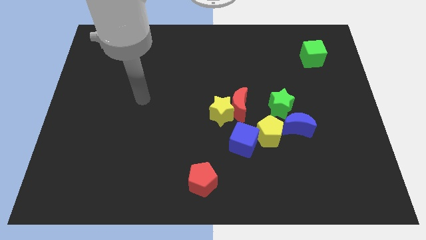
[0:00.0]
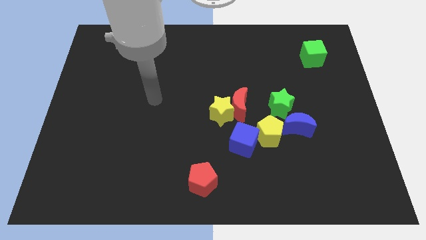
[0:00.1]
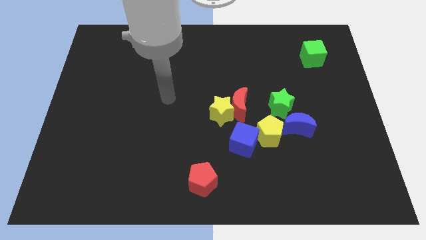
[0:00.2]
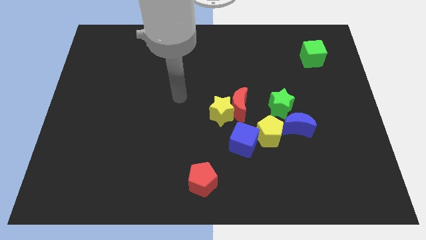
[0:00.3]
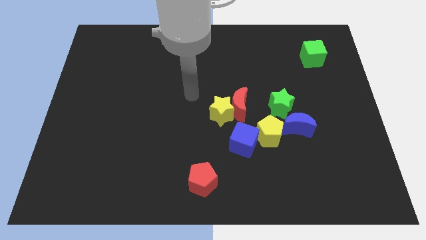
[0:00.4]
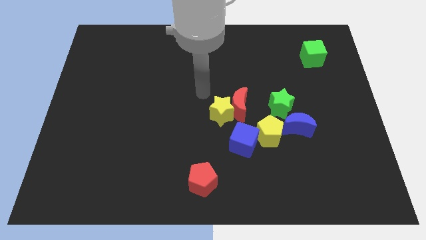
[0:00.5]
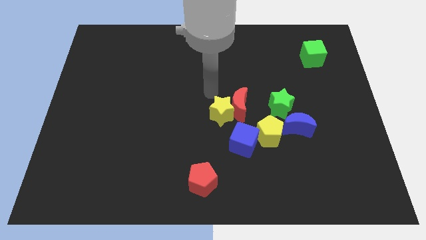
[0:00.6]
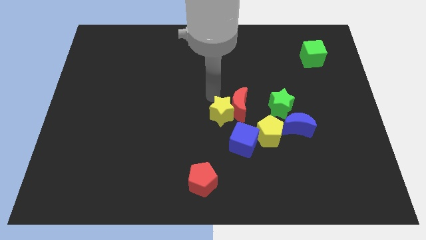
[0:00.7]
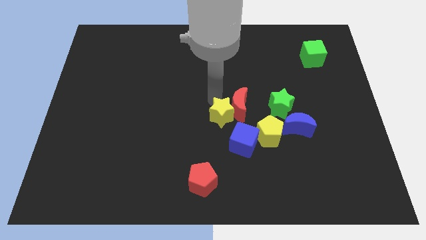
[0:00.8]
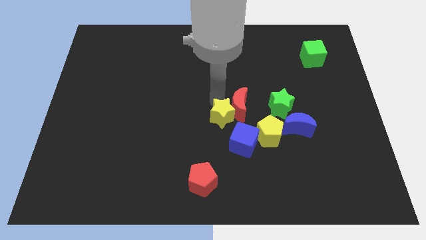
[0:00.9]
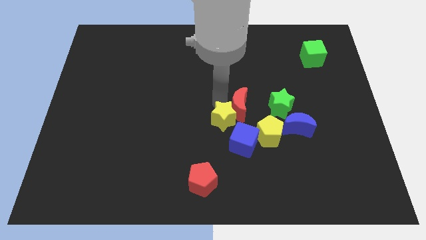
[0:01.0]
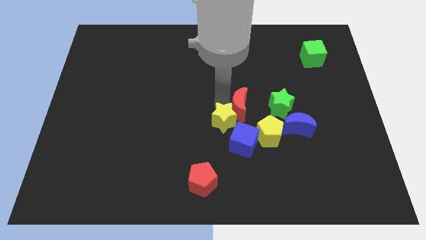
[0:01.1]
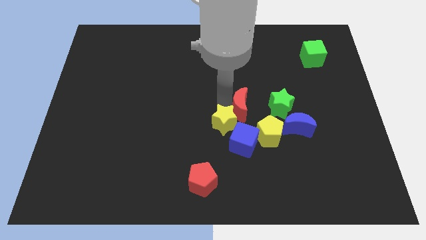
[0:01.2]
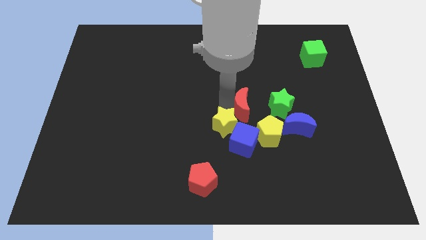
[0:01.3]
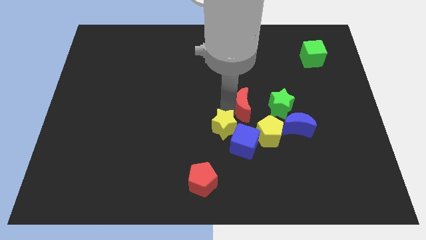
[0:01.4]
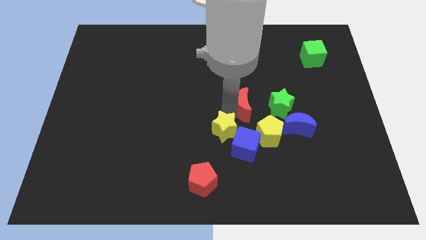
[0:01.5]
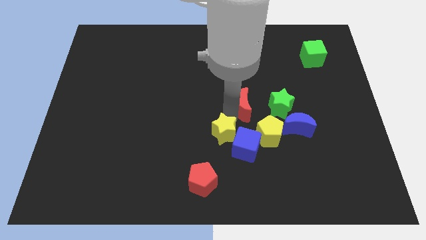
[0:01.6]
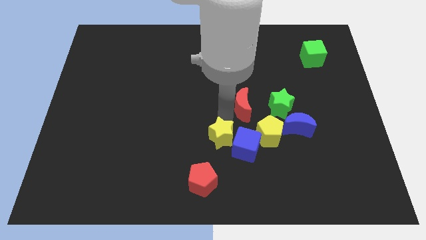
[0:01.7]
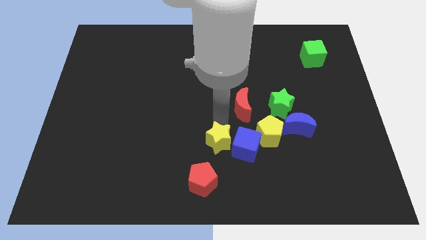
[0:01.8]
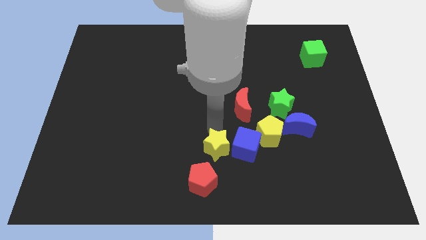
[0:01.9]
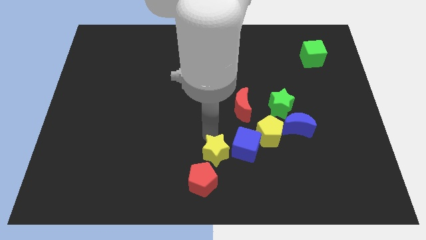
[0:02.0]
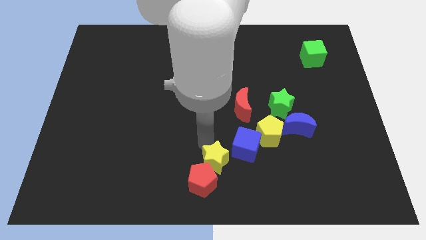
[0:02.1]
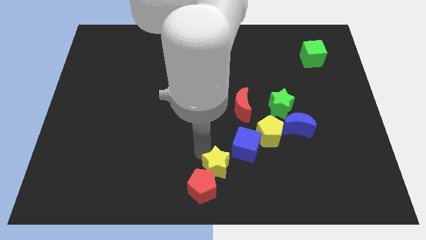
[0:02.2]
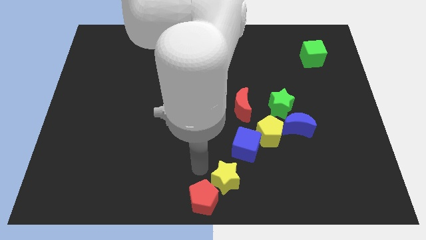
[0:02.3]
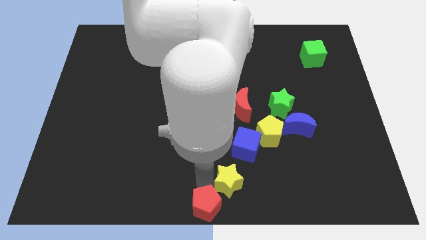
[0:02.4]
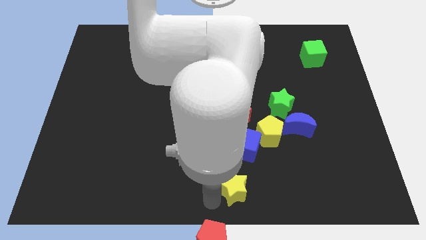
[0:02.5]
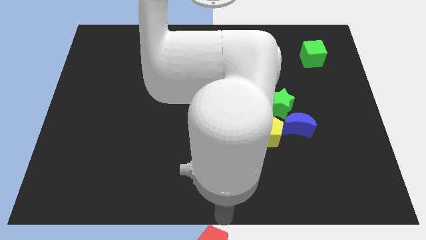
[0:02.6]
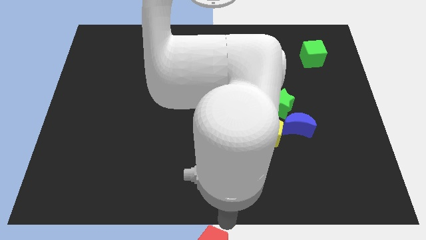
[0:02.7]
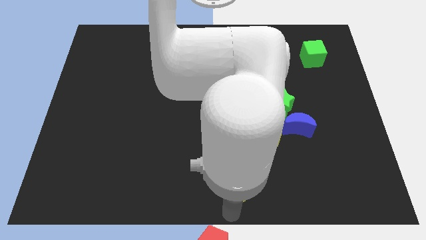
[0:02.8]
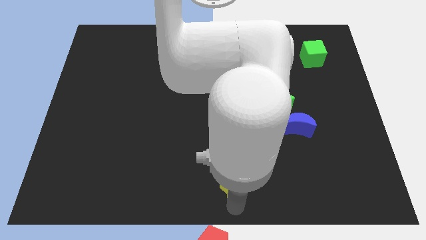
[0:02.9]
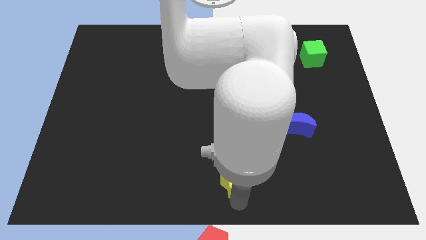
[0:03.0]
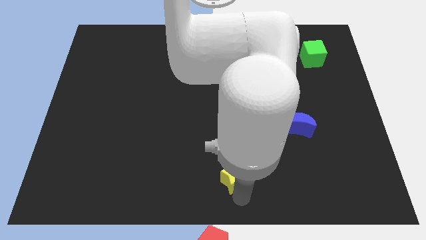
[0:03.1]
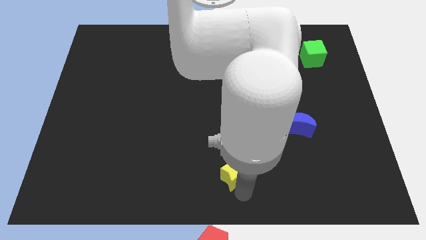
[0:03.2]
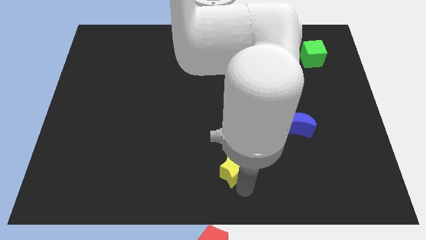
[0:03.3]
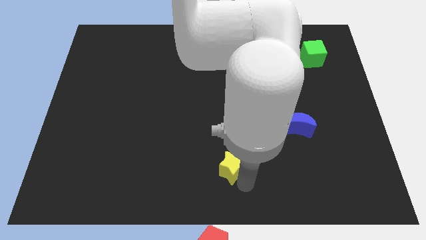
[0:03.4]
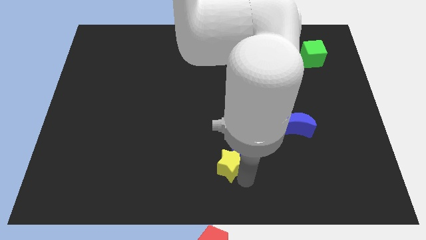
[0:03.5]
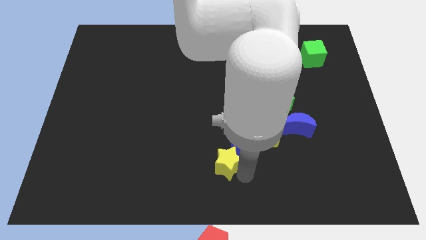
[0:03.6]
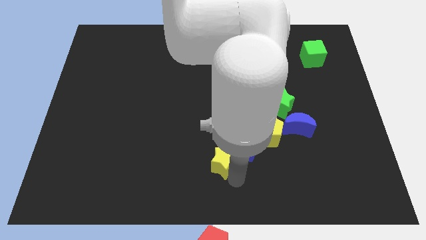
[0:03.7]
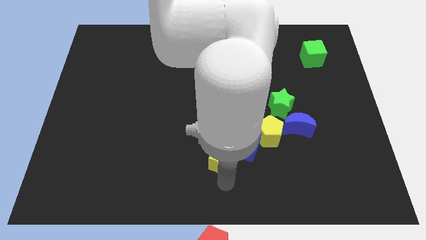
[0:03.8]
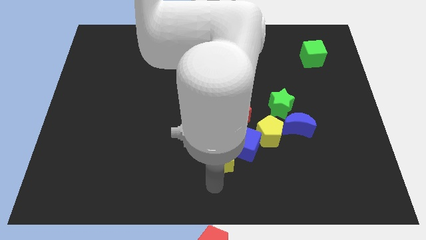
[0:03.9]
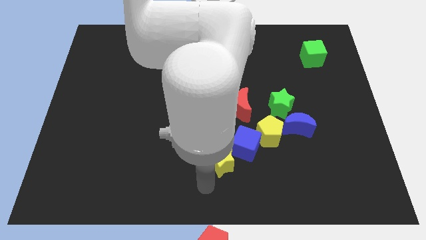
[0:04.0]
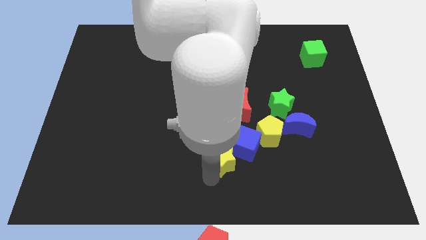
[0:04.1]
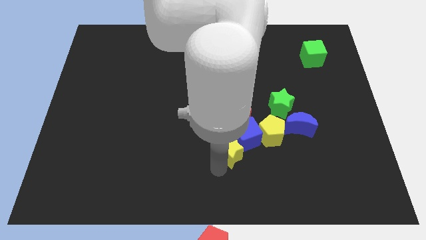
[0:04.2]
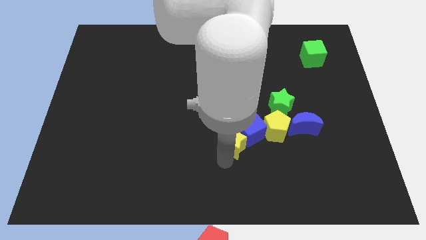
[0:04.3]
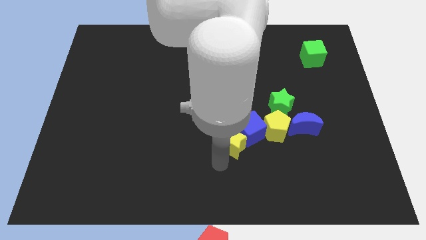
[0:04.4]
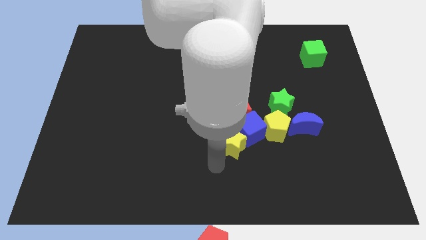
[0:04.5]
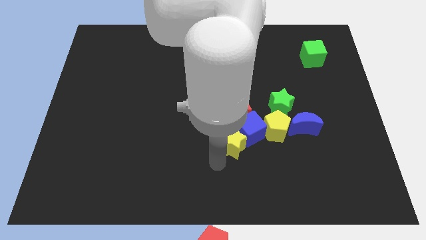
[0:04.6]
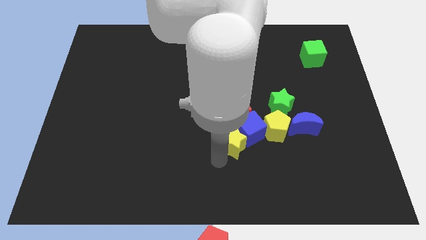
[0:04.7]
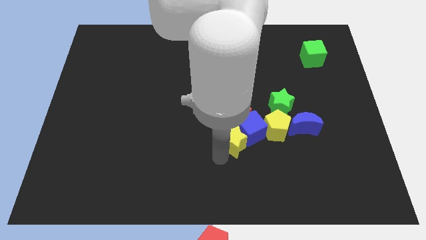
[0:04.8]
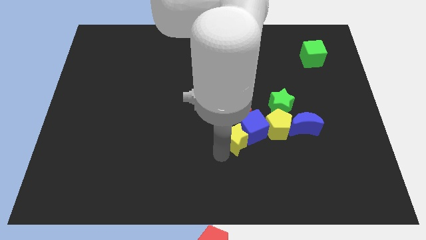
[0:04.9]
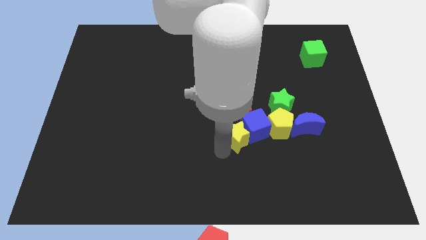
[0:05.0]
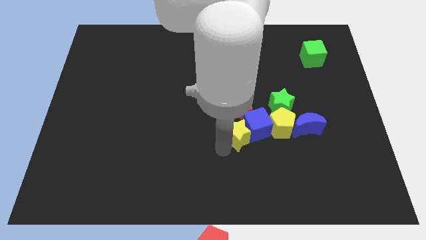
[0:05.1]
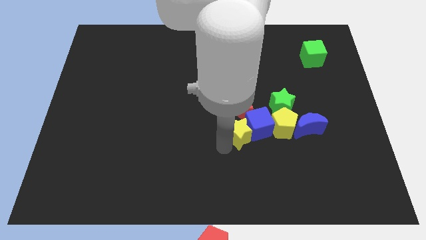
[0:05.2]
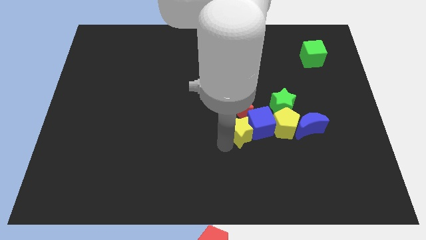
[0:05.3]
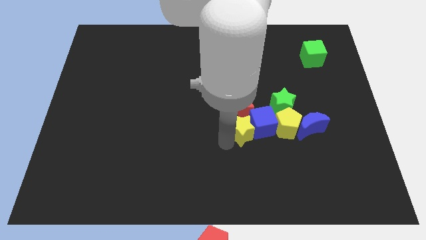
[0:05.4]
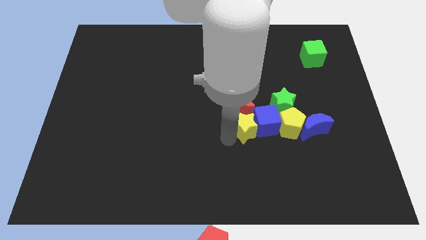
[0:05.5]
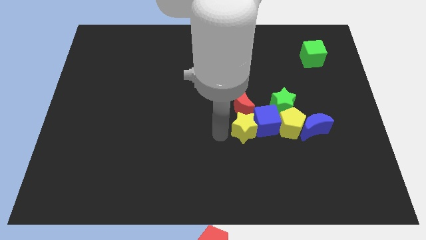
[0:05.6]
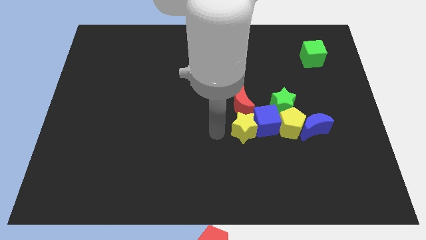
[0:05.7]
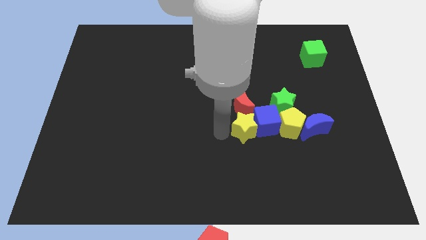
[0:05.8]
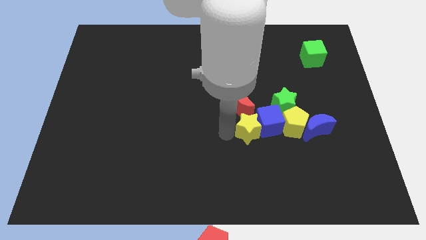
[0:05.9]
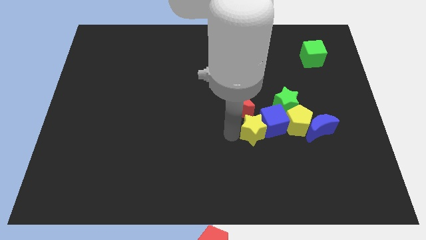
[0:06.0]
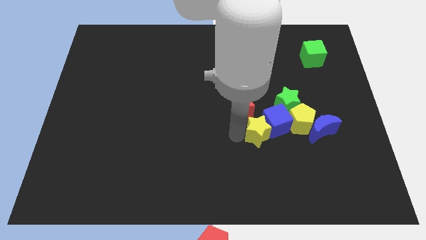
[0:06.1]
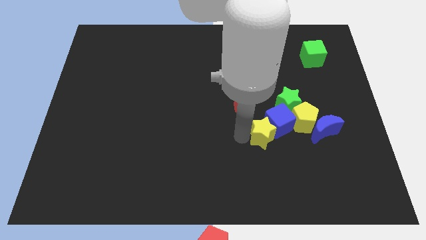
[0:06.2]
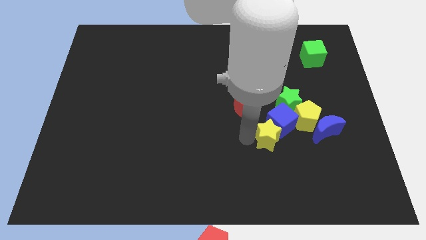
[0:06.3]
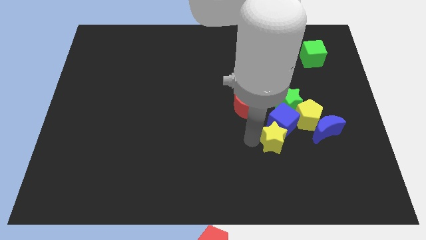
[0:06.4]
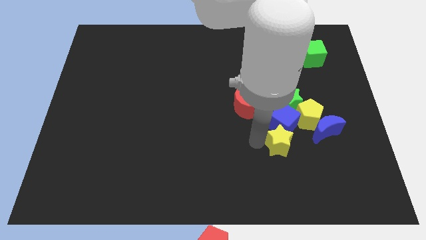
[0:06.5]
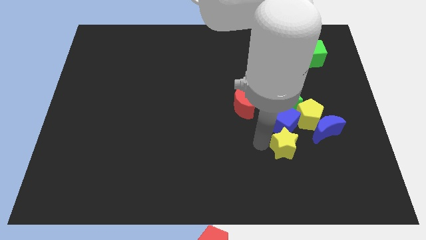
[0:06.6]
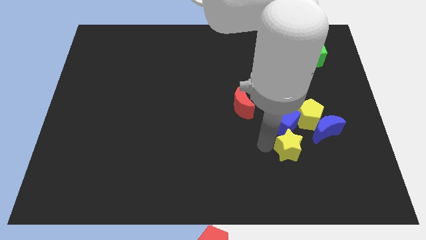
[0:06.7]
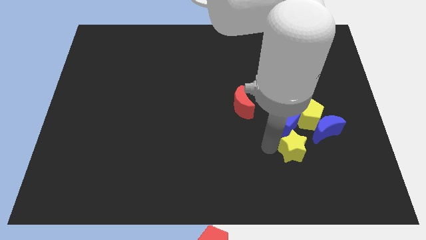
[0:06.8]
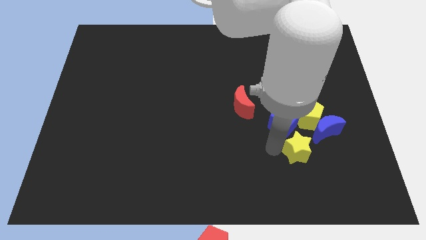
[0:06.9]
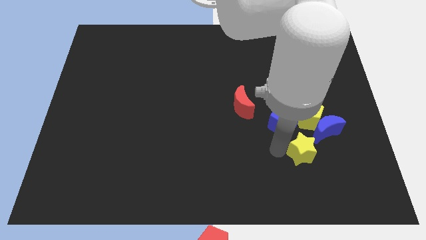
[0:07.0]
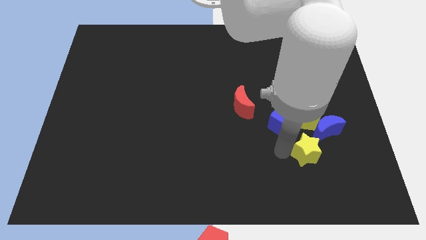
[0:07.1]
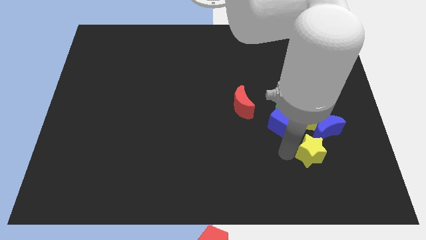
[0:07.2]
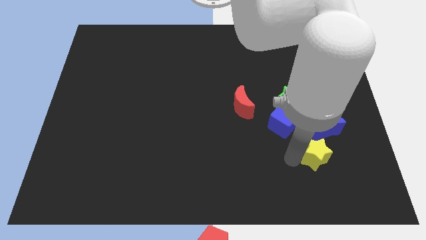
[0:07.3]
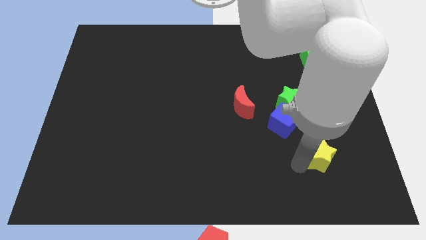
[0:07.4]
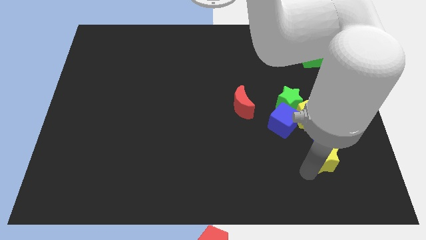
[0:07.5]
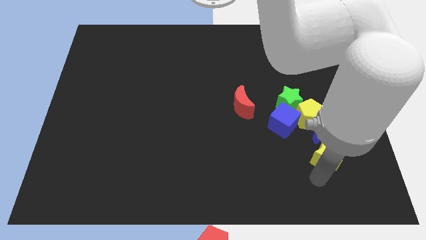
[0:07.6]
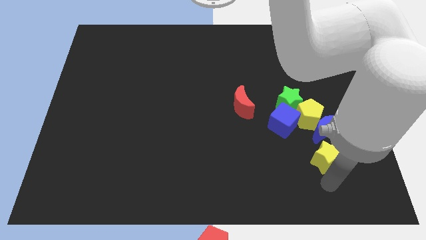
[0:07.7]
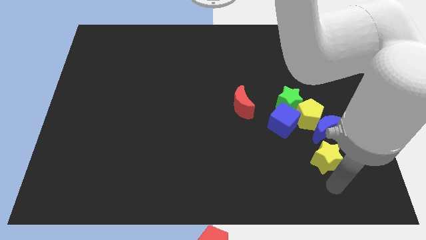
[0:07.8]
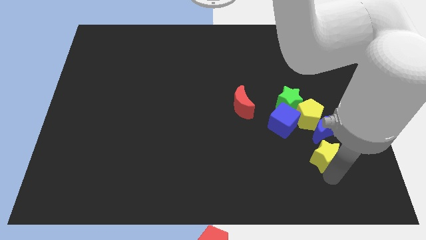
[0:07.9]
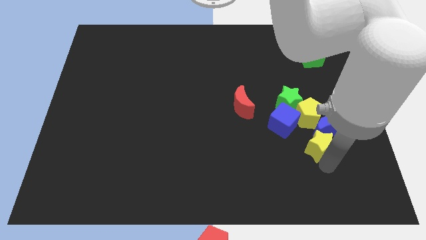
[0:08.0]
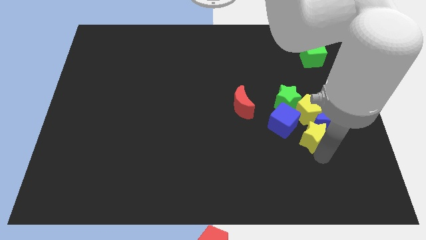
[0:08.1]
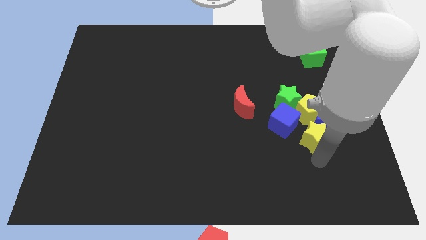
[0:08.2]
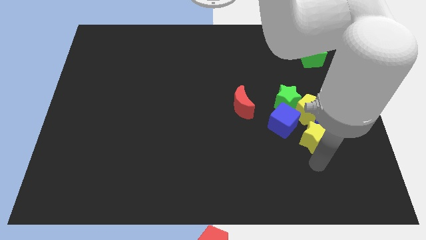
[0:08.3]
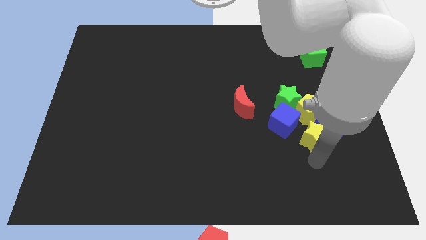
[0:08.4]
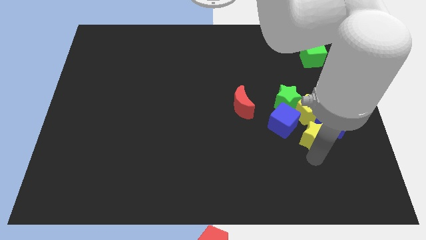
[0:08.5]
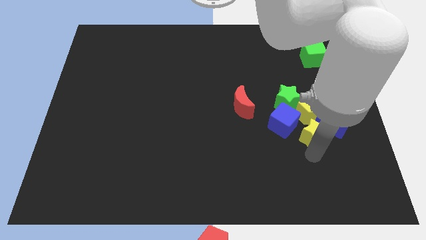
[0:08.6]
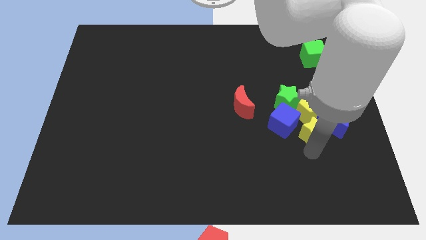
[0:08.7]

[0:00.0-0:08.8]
move the yellow star next to the yellow pentagon
